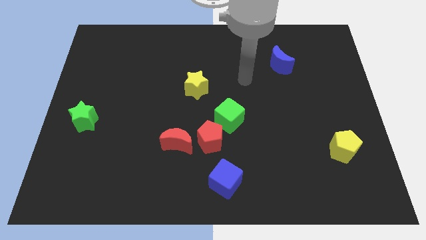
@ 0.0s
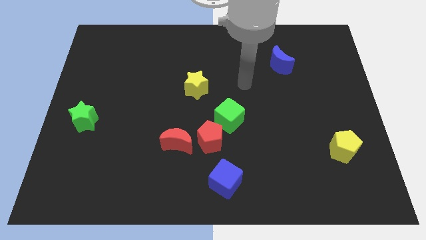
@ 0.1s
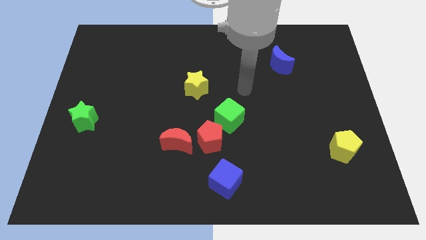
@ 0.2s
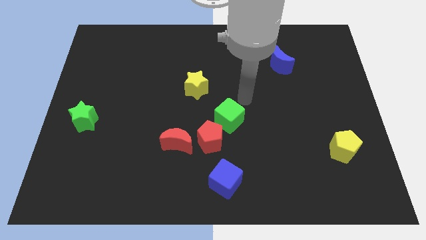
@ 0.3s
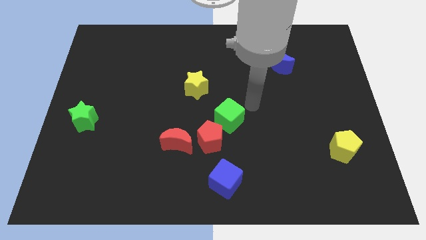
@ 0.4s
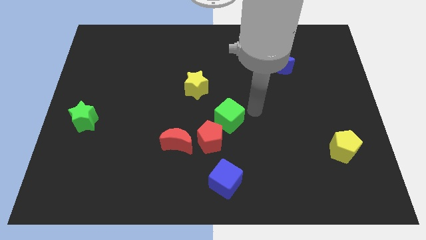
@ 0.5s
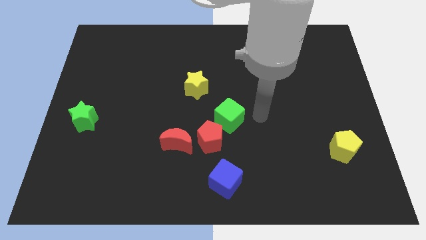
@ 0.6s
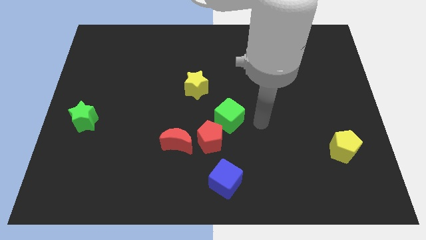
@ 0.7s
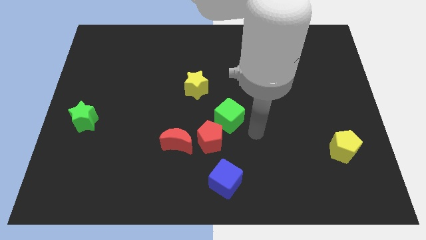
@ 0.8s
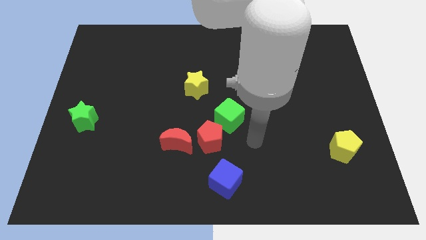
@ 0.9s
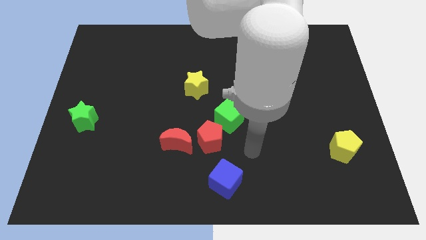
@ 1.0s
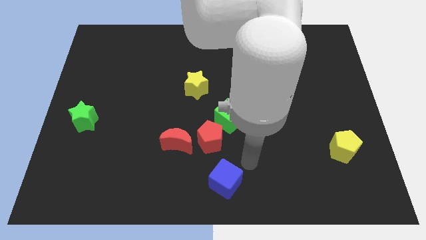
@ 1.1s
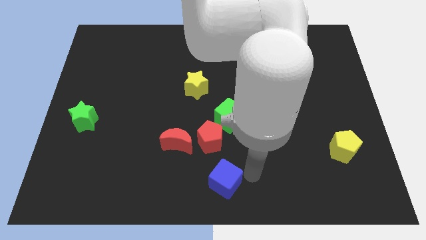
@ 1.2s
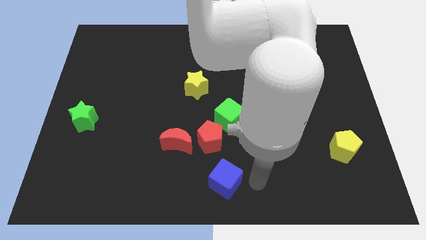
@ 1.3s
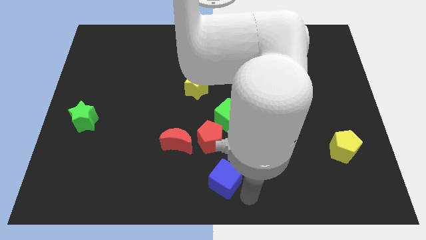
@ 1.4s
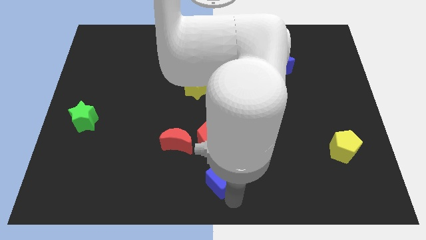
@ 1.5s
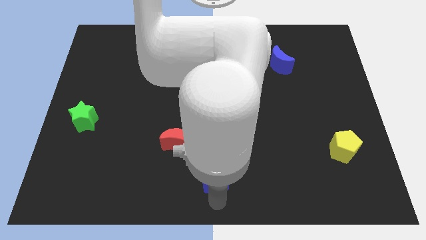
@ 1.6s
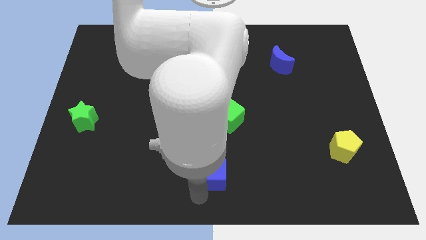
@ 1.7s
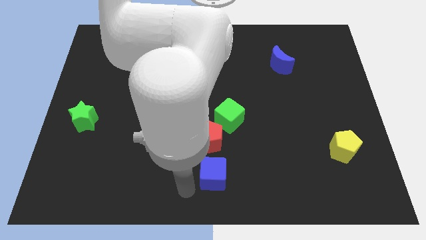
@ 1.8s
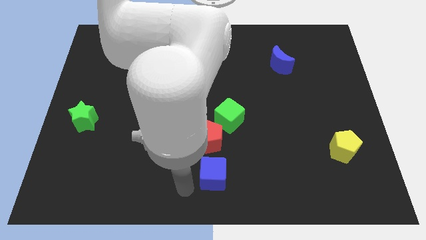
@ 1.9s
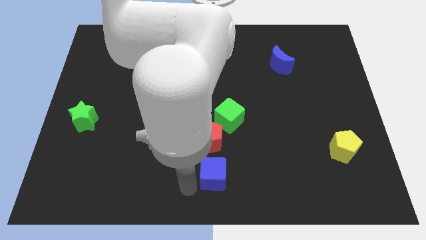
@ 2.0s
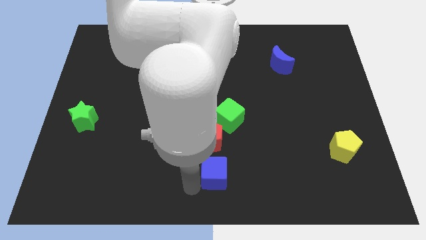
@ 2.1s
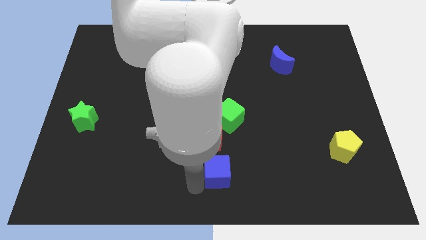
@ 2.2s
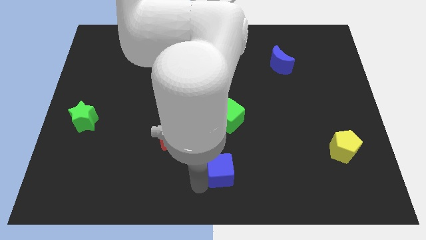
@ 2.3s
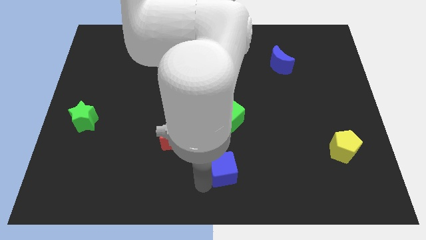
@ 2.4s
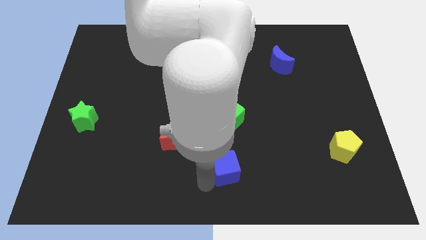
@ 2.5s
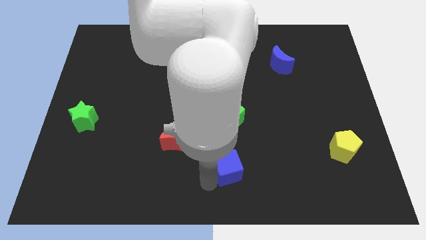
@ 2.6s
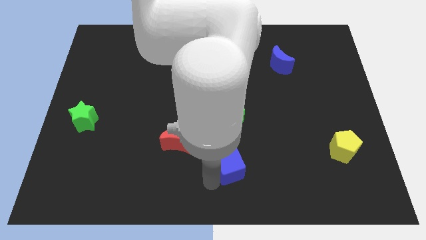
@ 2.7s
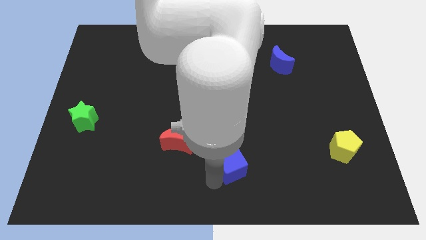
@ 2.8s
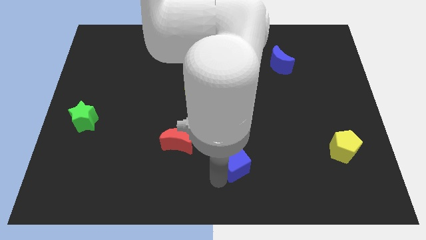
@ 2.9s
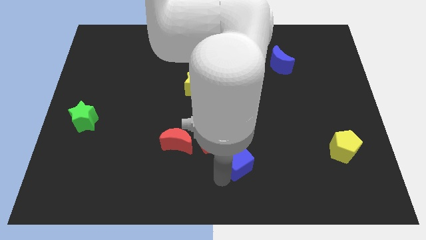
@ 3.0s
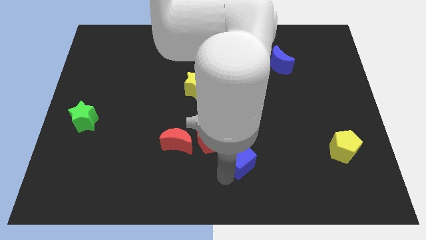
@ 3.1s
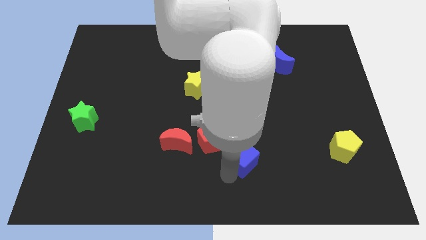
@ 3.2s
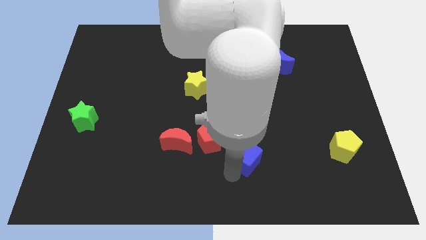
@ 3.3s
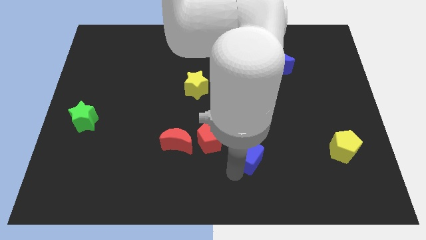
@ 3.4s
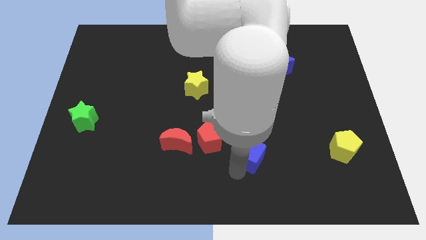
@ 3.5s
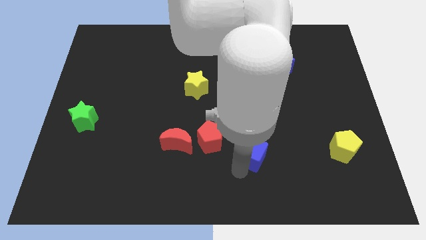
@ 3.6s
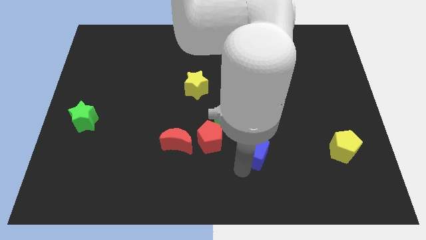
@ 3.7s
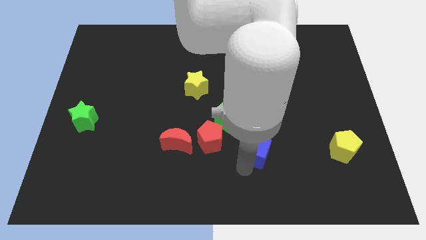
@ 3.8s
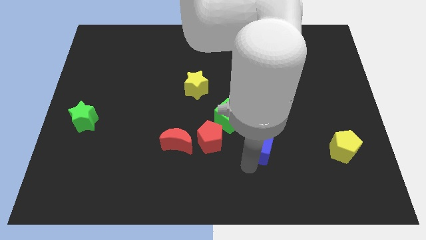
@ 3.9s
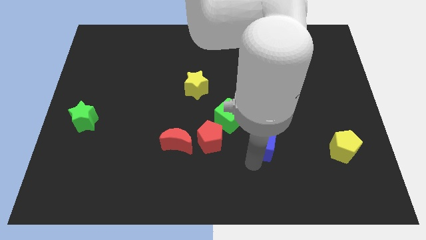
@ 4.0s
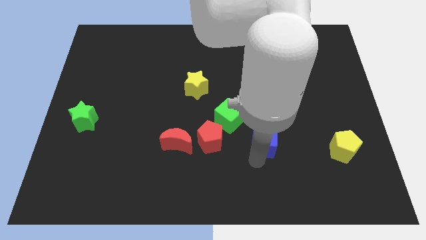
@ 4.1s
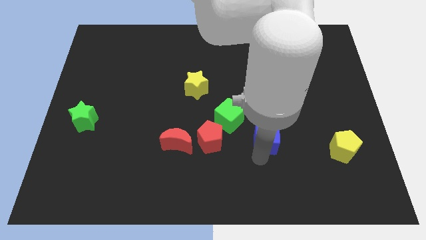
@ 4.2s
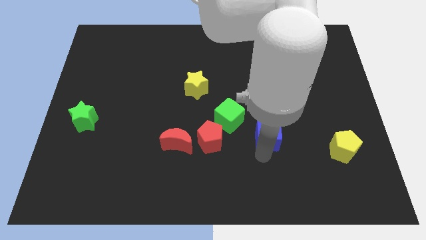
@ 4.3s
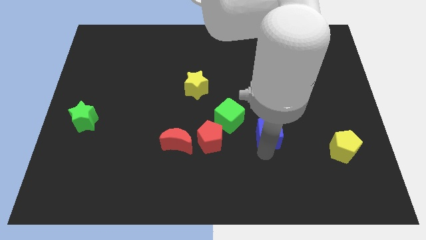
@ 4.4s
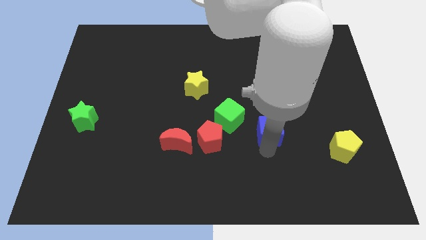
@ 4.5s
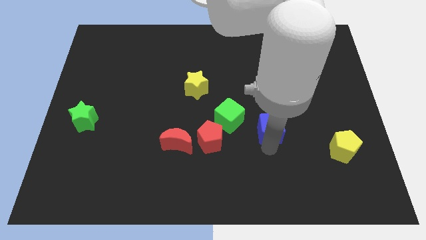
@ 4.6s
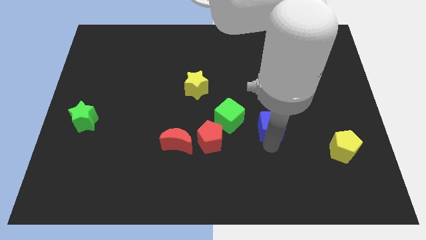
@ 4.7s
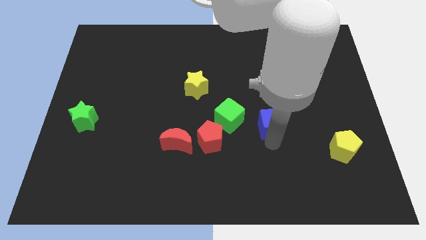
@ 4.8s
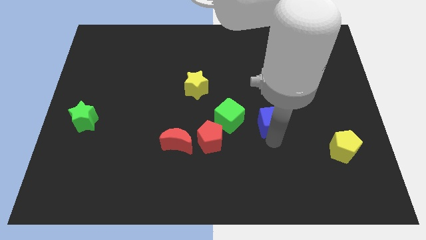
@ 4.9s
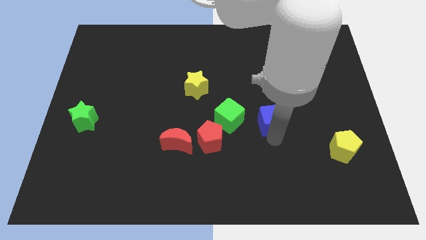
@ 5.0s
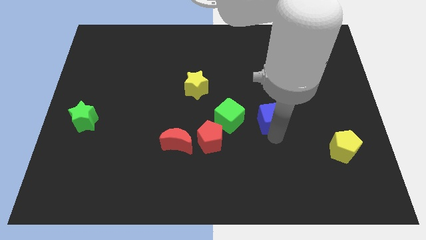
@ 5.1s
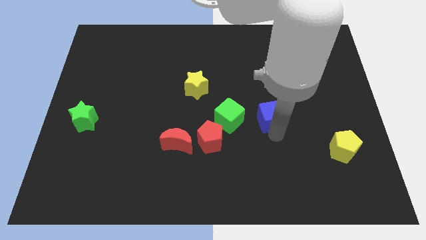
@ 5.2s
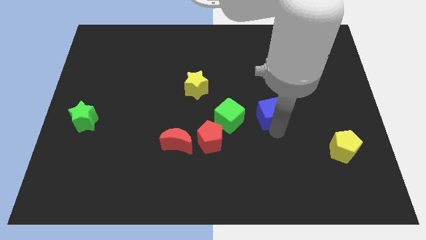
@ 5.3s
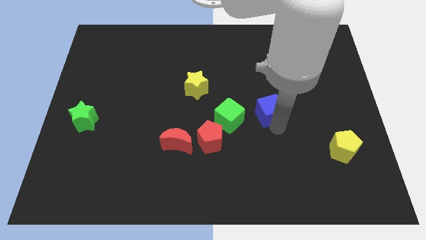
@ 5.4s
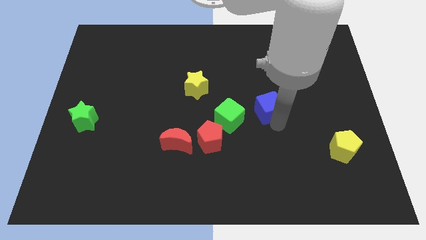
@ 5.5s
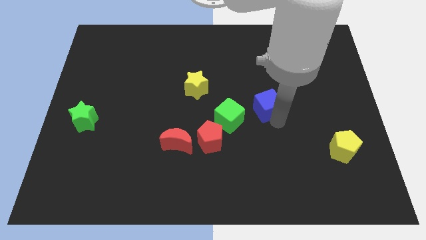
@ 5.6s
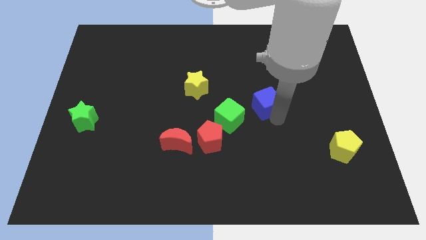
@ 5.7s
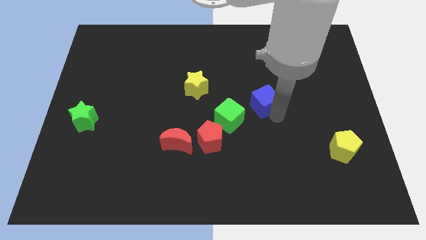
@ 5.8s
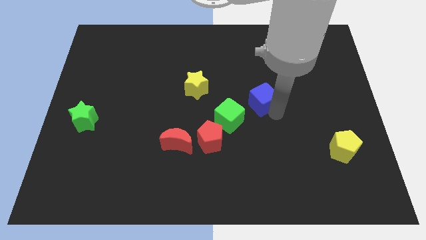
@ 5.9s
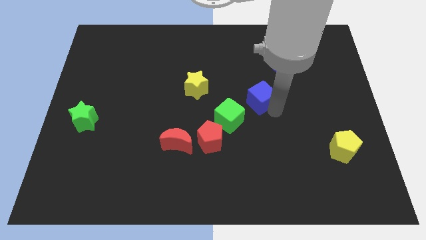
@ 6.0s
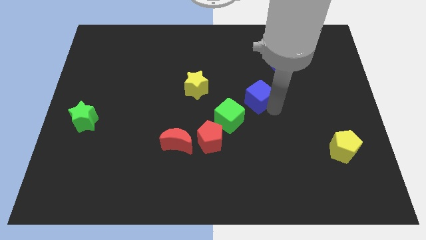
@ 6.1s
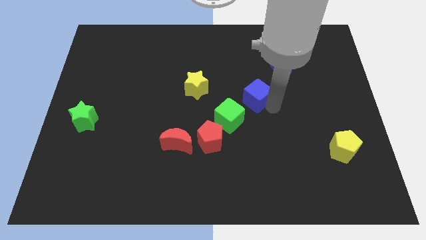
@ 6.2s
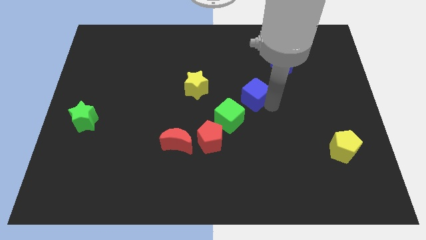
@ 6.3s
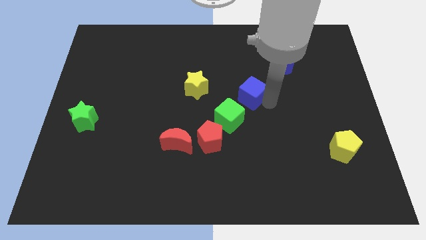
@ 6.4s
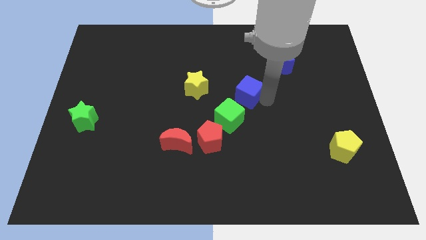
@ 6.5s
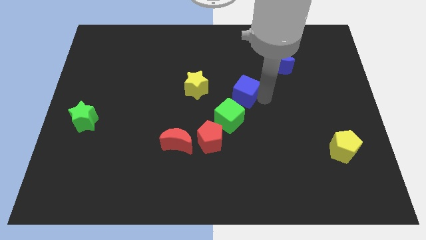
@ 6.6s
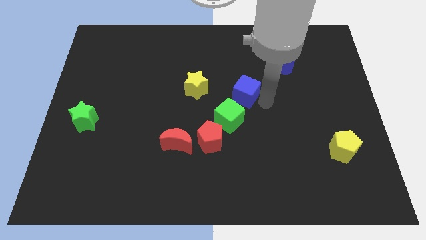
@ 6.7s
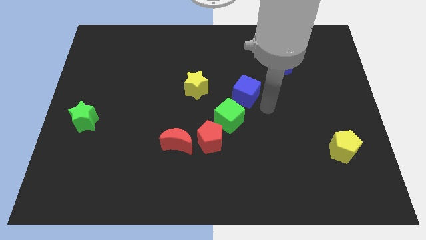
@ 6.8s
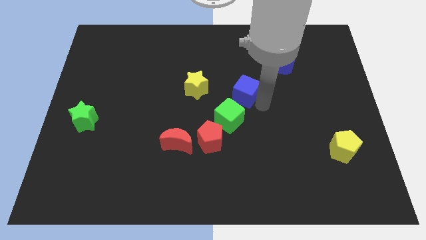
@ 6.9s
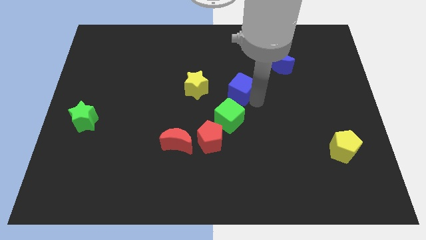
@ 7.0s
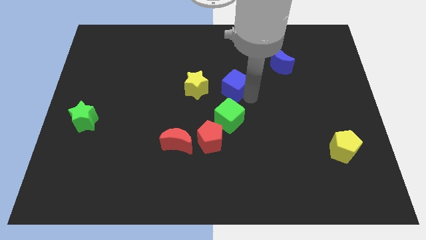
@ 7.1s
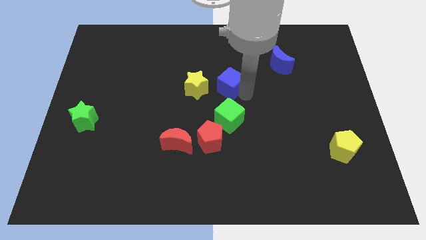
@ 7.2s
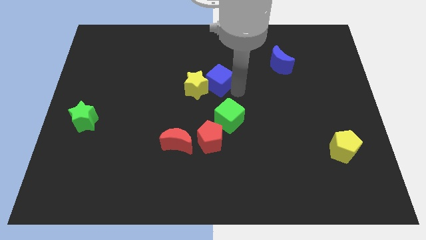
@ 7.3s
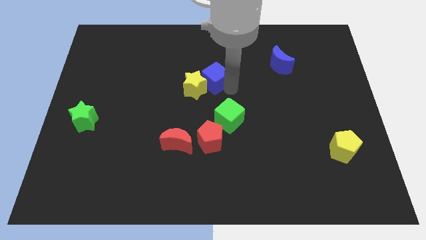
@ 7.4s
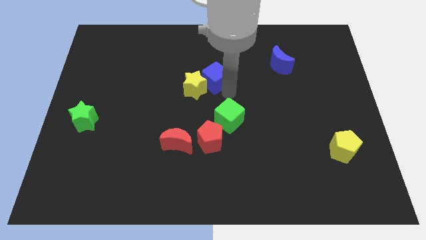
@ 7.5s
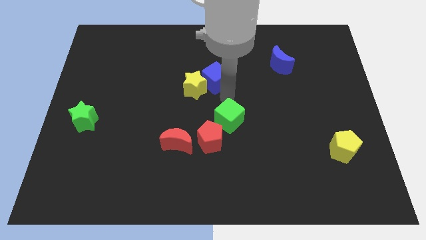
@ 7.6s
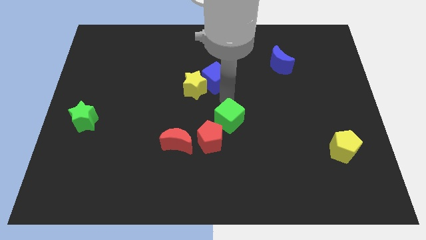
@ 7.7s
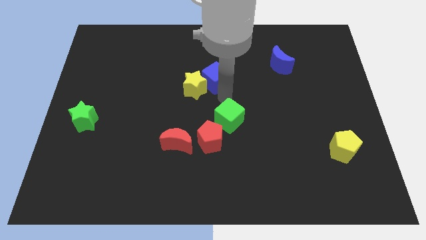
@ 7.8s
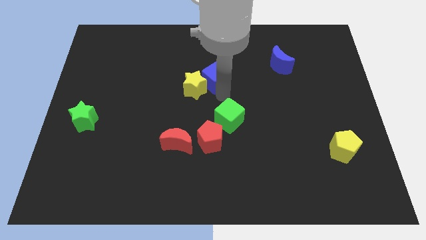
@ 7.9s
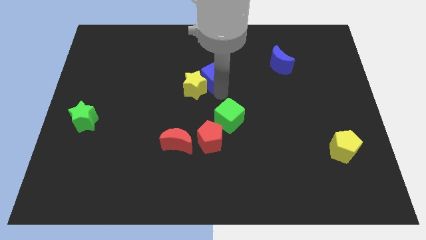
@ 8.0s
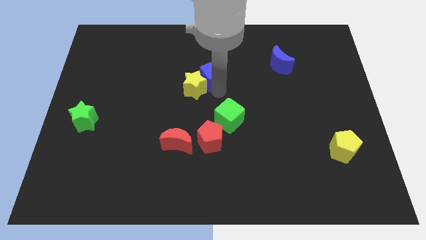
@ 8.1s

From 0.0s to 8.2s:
move the blue cube above the yellow star
